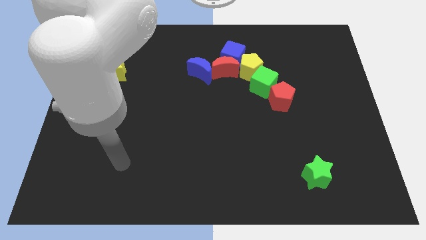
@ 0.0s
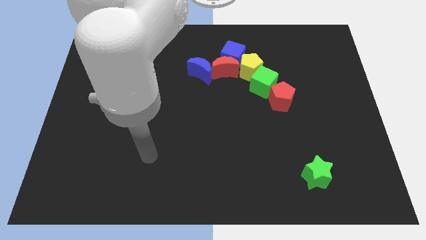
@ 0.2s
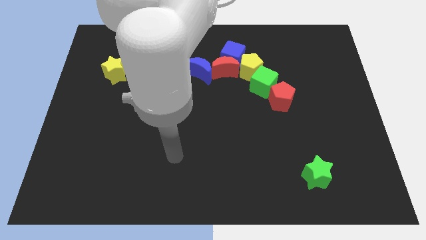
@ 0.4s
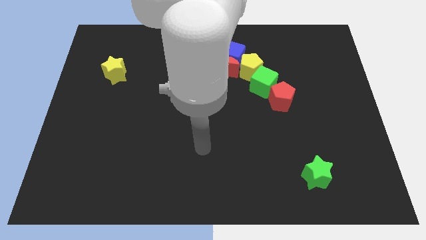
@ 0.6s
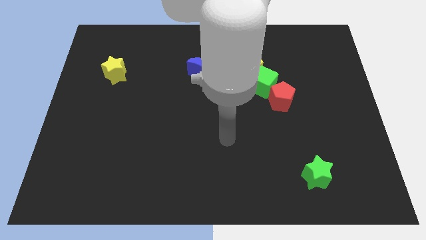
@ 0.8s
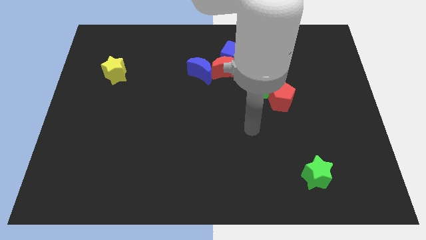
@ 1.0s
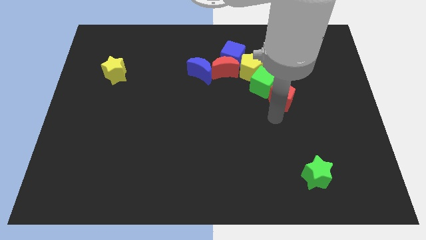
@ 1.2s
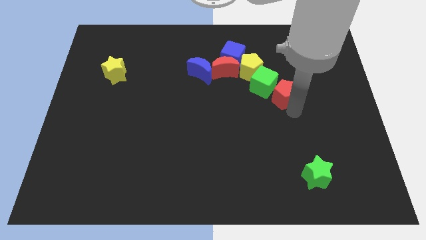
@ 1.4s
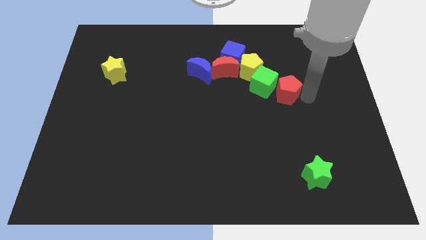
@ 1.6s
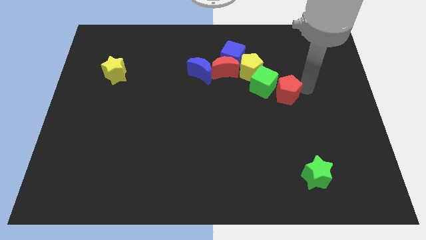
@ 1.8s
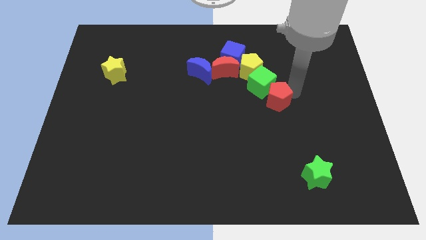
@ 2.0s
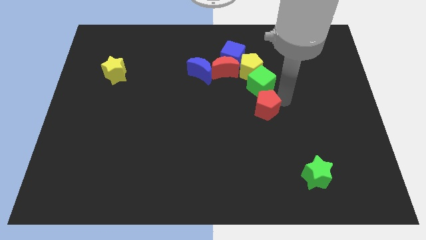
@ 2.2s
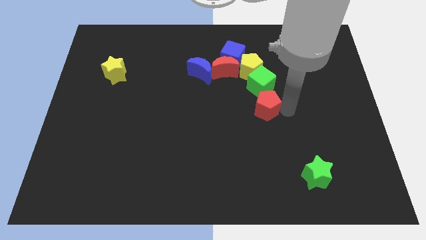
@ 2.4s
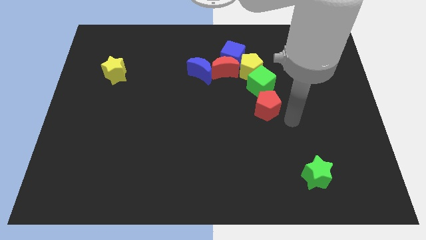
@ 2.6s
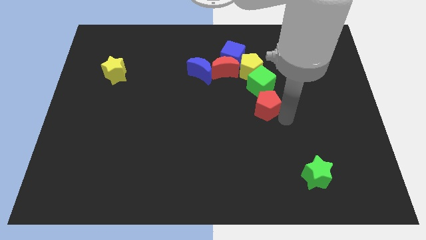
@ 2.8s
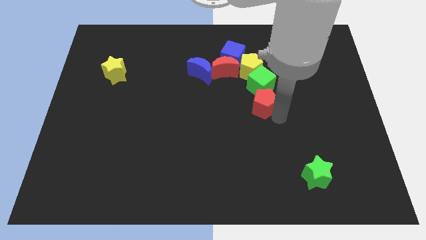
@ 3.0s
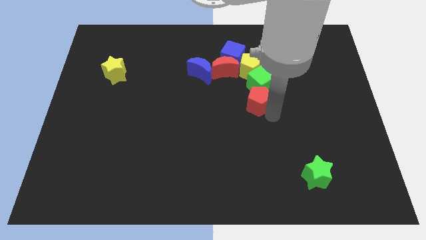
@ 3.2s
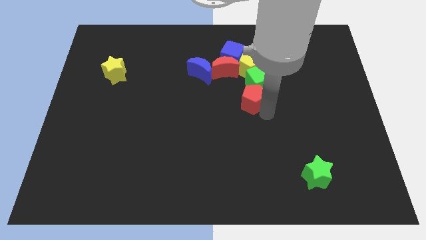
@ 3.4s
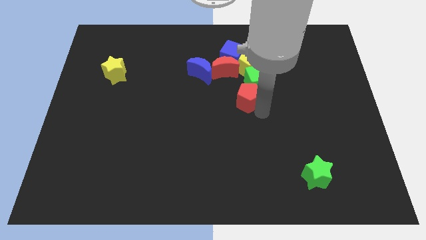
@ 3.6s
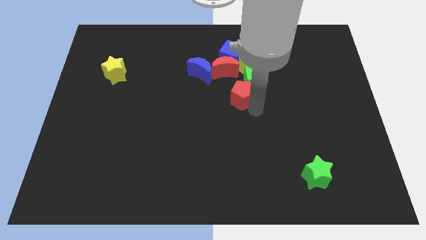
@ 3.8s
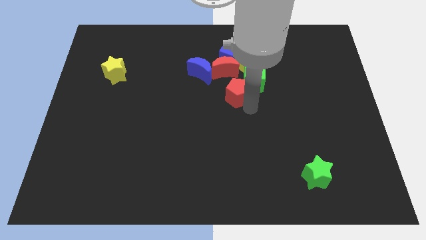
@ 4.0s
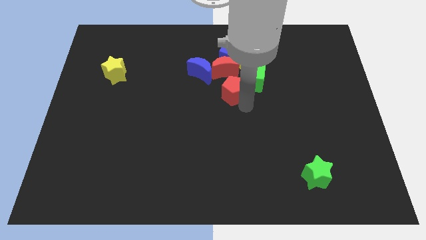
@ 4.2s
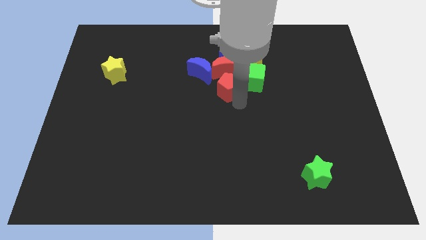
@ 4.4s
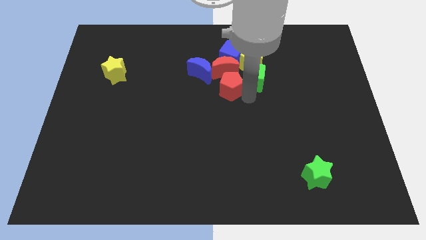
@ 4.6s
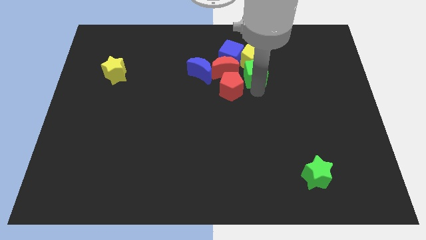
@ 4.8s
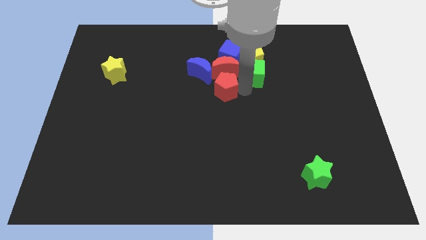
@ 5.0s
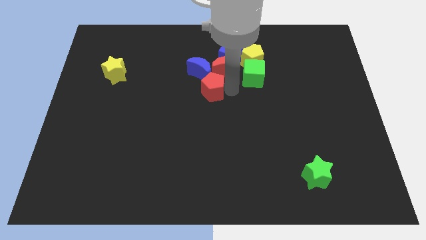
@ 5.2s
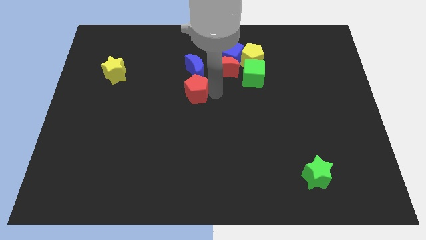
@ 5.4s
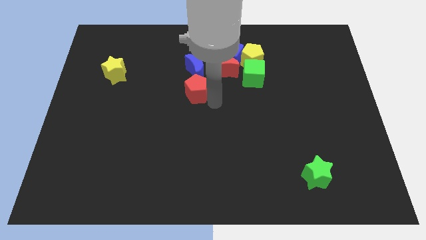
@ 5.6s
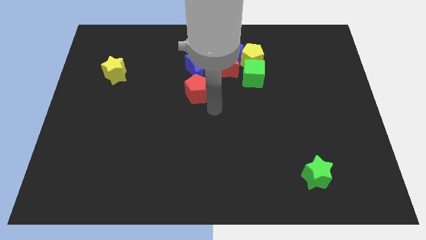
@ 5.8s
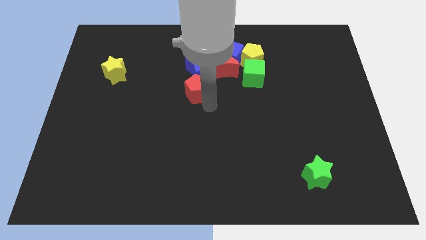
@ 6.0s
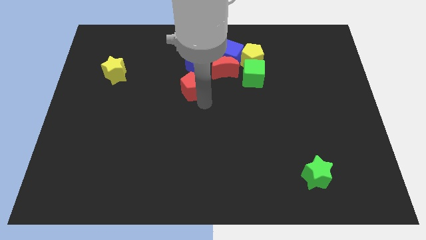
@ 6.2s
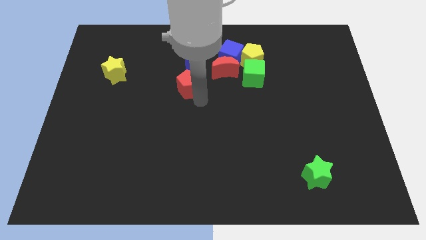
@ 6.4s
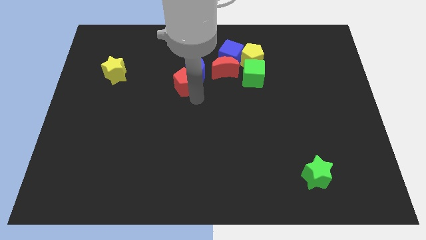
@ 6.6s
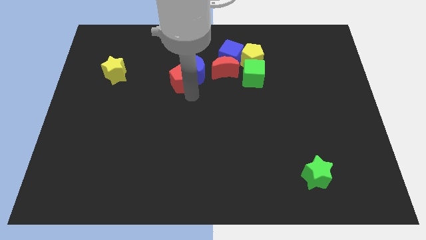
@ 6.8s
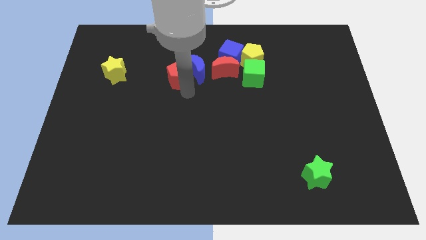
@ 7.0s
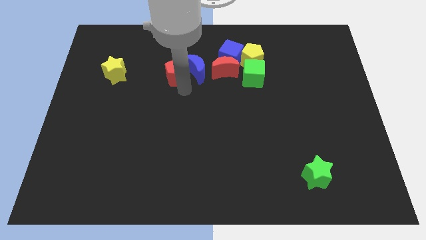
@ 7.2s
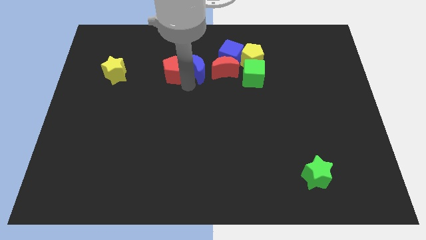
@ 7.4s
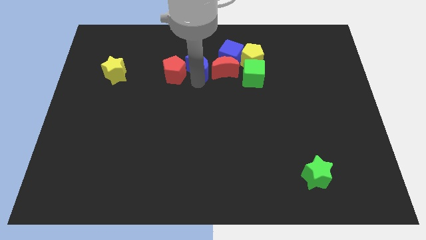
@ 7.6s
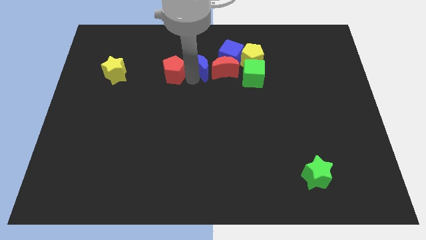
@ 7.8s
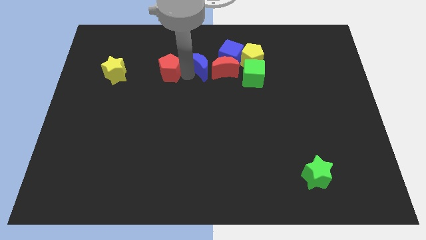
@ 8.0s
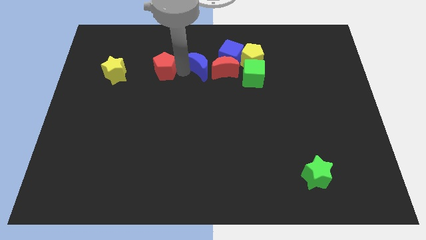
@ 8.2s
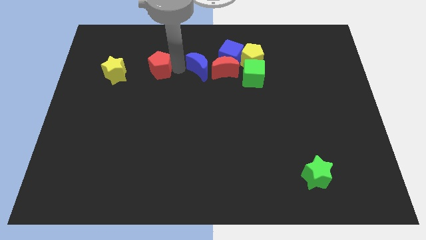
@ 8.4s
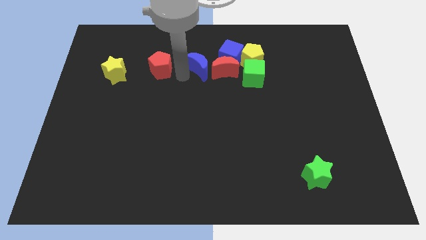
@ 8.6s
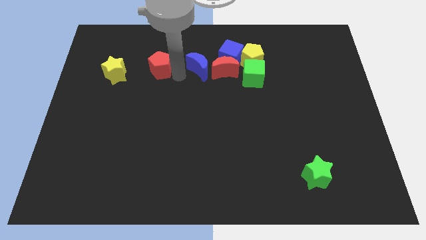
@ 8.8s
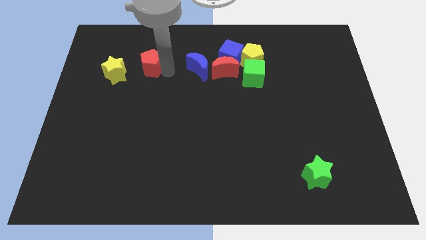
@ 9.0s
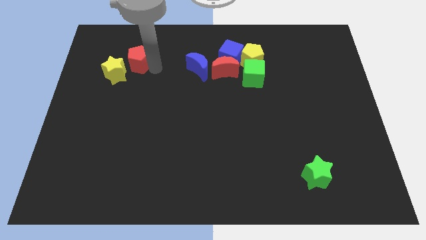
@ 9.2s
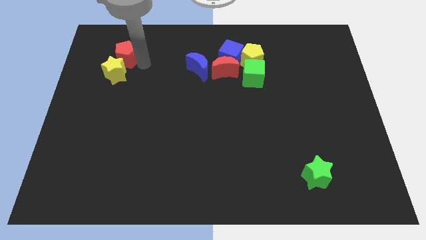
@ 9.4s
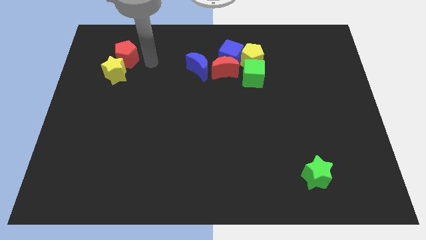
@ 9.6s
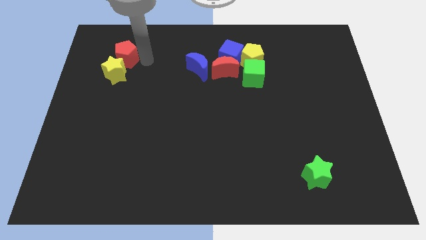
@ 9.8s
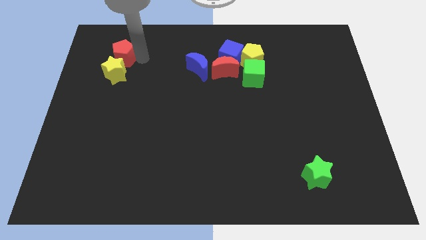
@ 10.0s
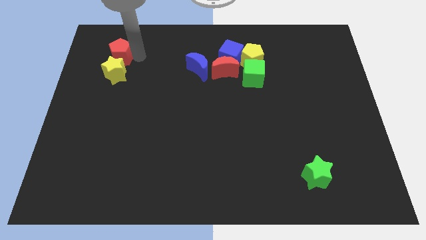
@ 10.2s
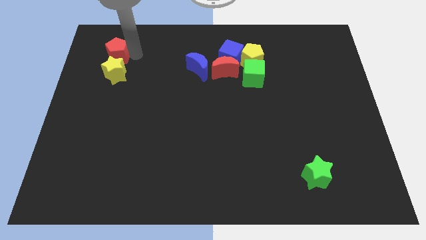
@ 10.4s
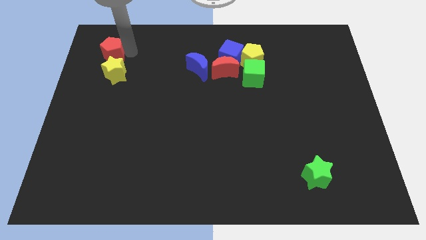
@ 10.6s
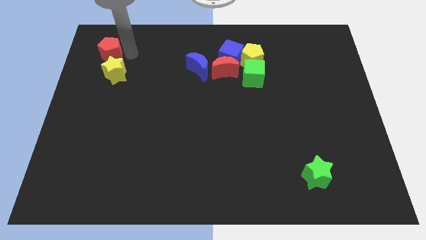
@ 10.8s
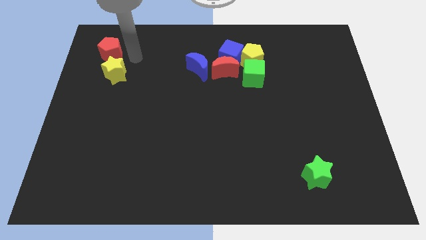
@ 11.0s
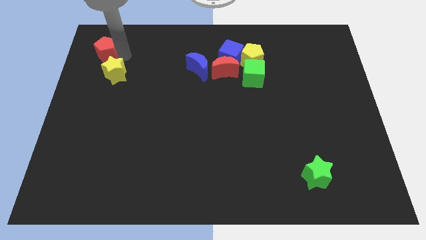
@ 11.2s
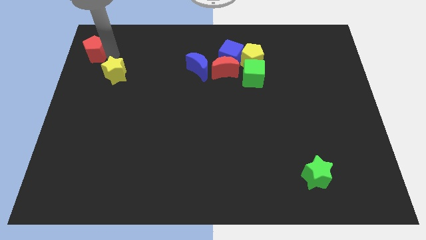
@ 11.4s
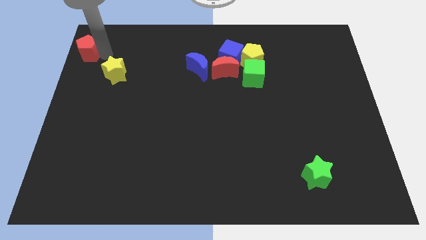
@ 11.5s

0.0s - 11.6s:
push the red pentagon to the top left
